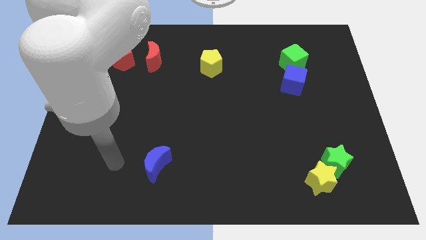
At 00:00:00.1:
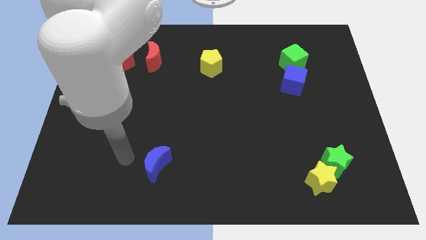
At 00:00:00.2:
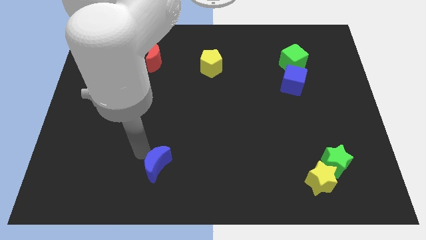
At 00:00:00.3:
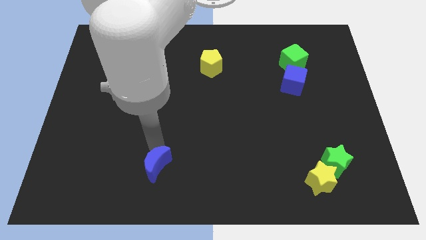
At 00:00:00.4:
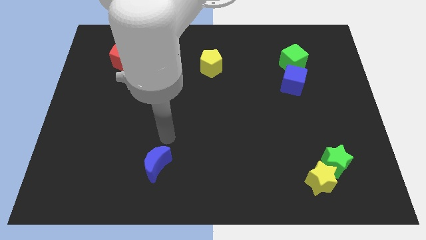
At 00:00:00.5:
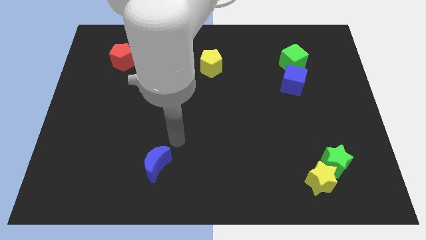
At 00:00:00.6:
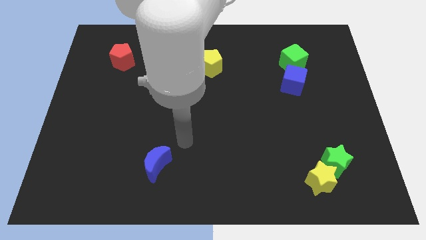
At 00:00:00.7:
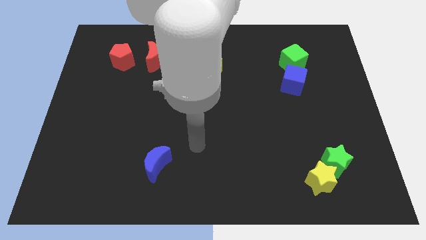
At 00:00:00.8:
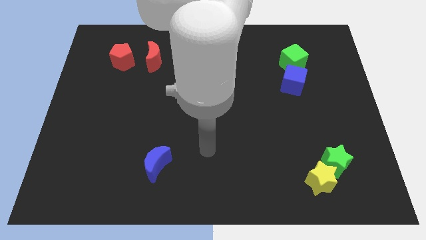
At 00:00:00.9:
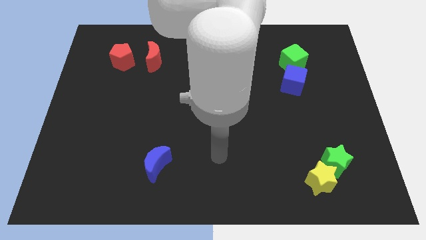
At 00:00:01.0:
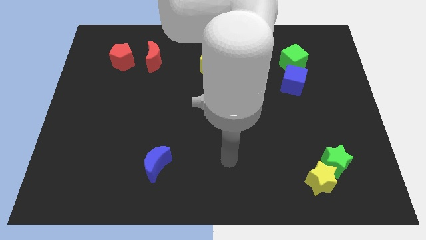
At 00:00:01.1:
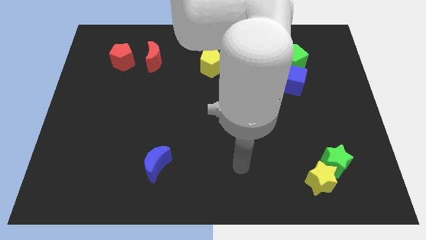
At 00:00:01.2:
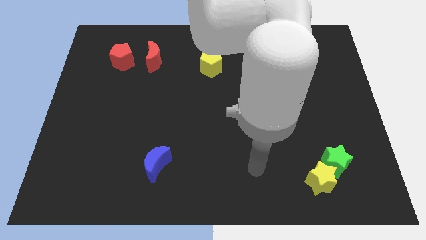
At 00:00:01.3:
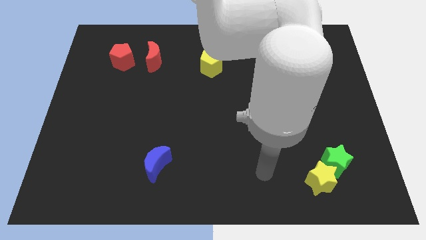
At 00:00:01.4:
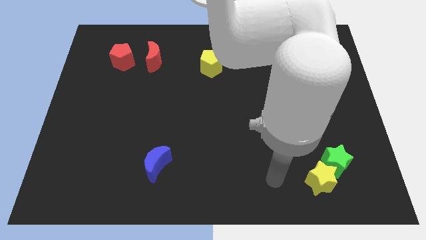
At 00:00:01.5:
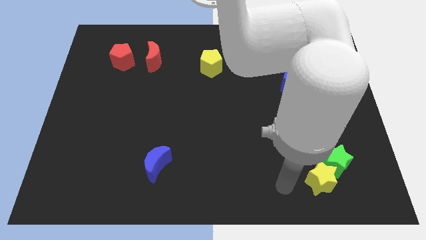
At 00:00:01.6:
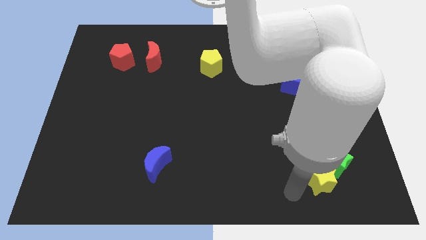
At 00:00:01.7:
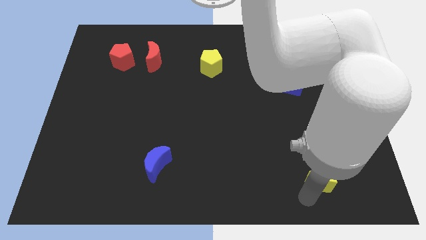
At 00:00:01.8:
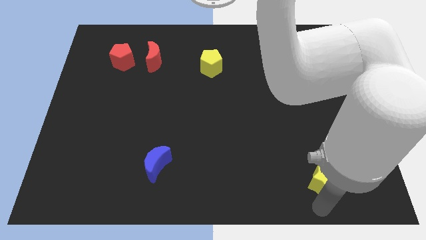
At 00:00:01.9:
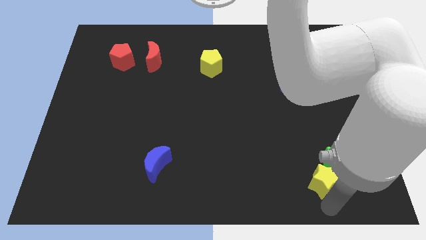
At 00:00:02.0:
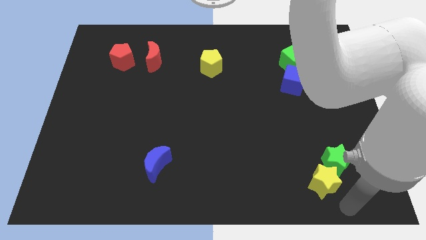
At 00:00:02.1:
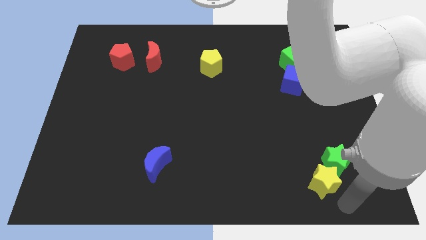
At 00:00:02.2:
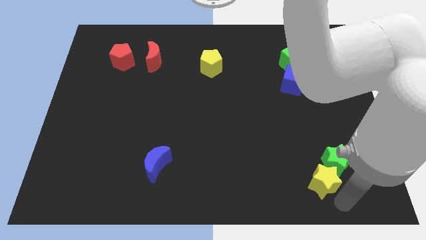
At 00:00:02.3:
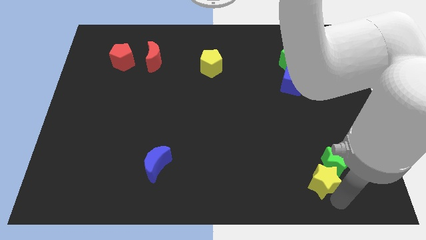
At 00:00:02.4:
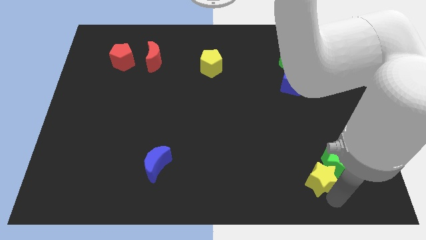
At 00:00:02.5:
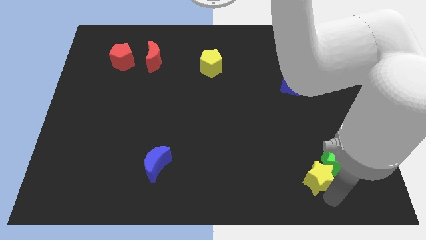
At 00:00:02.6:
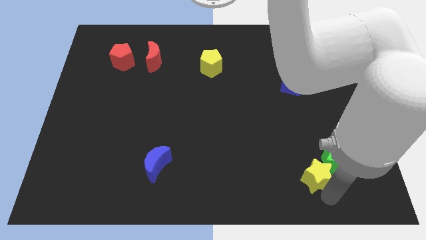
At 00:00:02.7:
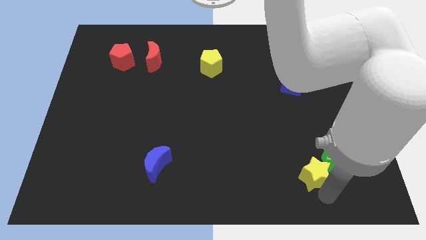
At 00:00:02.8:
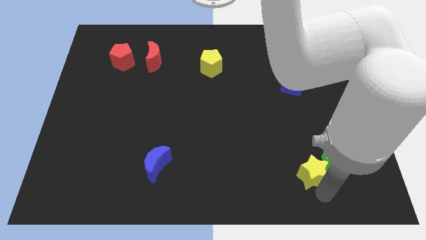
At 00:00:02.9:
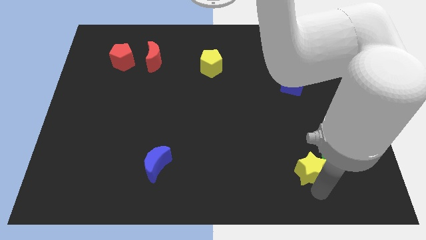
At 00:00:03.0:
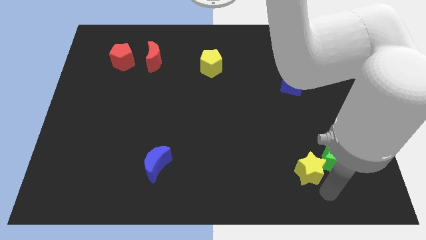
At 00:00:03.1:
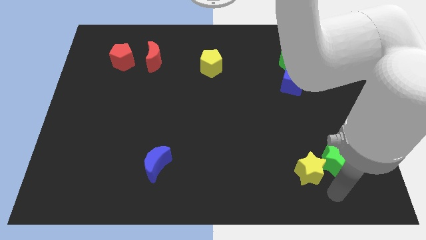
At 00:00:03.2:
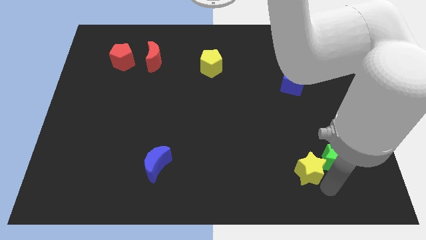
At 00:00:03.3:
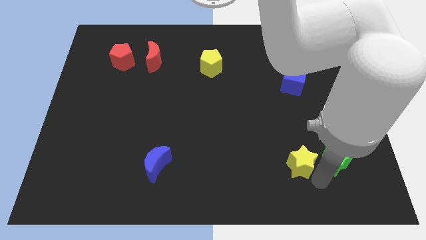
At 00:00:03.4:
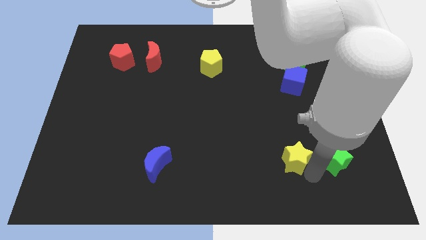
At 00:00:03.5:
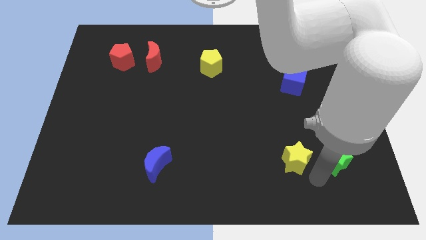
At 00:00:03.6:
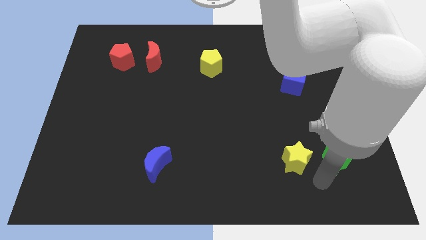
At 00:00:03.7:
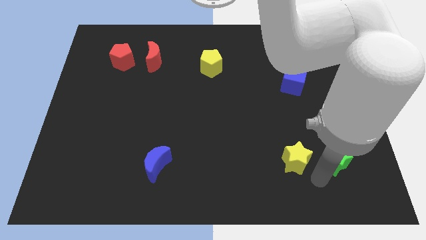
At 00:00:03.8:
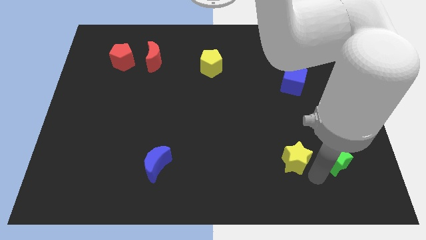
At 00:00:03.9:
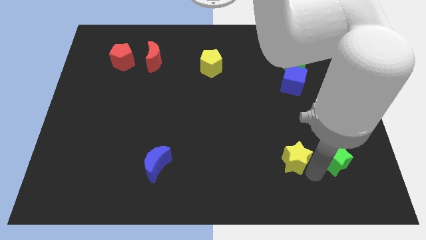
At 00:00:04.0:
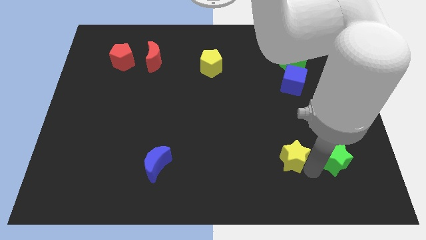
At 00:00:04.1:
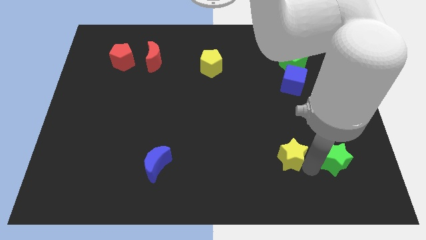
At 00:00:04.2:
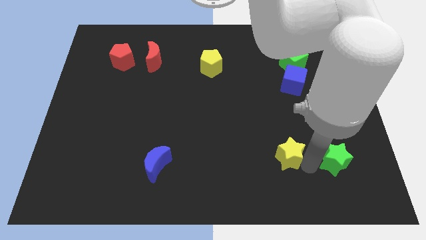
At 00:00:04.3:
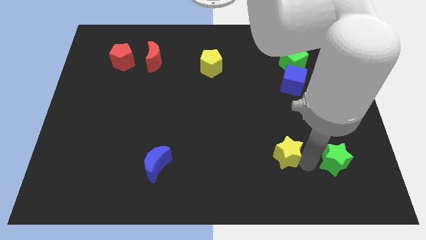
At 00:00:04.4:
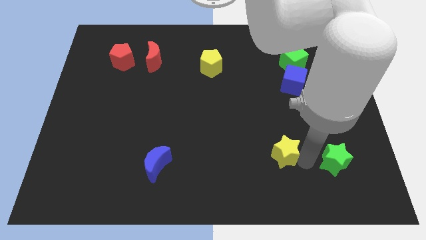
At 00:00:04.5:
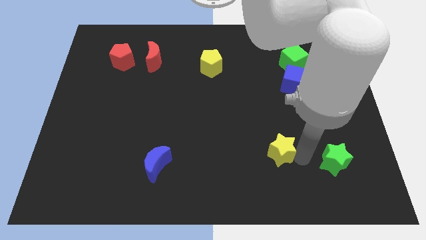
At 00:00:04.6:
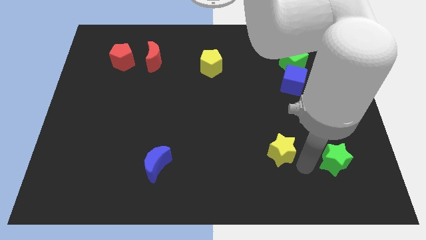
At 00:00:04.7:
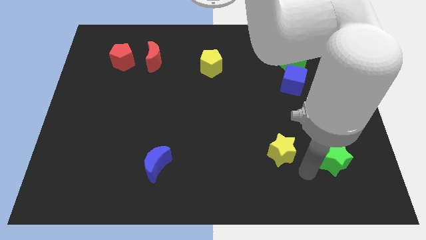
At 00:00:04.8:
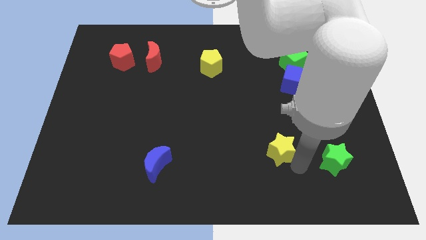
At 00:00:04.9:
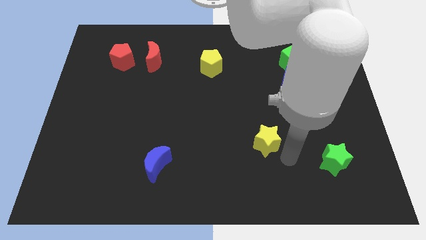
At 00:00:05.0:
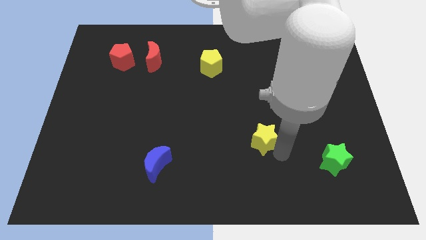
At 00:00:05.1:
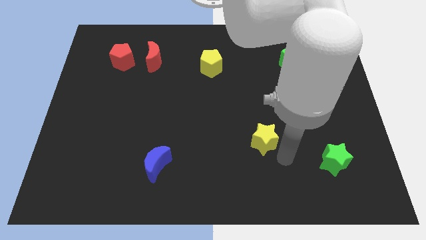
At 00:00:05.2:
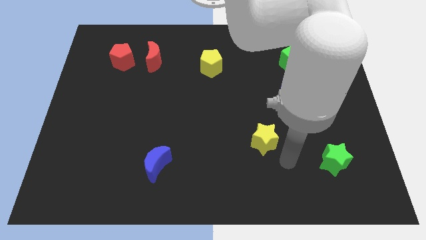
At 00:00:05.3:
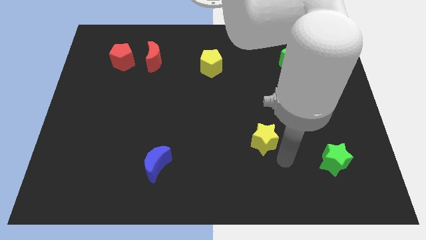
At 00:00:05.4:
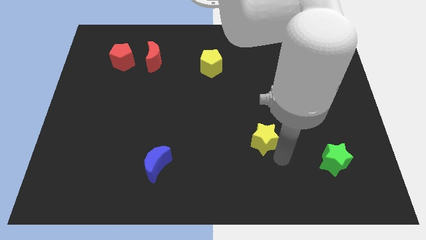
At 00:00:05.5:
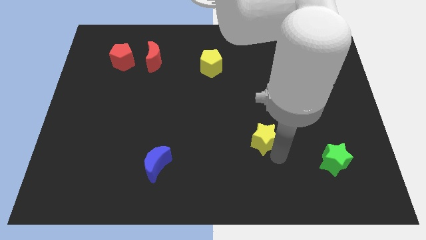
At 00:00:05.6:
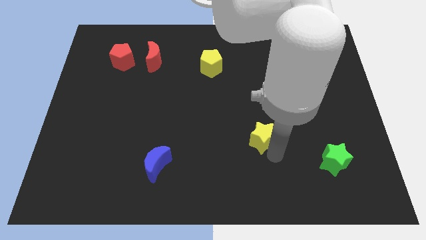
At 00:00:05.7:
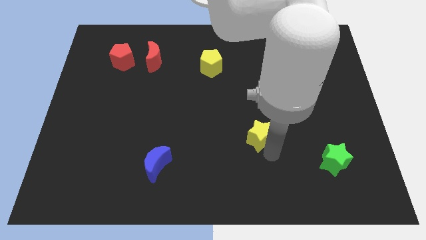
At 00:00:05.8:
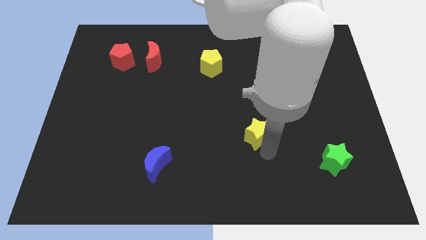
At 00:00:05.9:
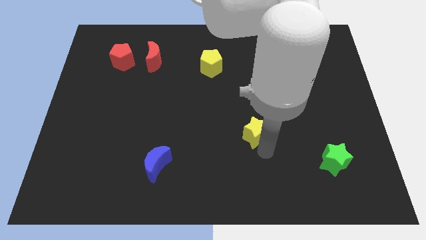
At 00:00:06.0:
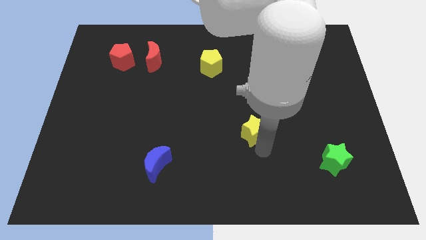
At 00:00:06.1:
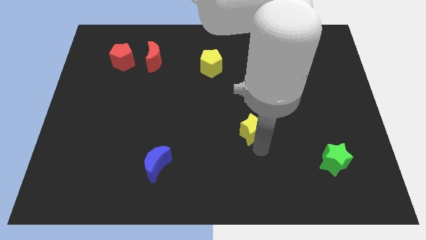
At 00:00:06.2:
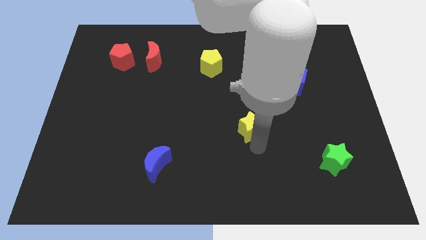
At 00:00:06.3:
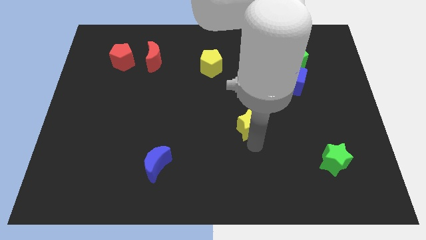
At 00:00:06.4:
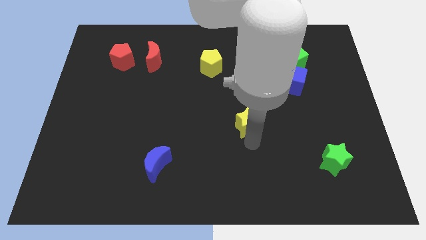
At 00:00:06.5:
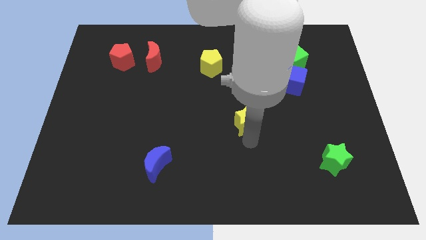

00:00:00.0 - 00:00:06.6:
push the yellow star up and left

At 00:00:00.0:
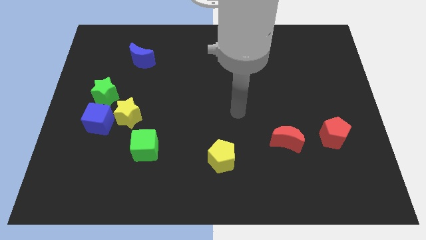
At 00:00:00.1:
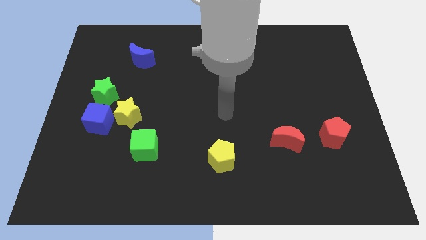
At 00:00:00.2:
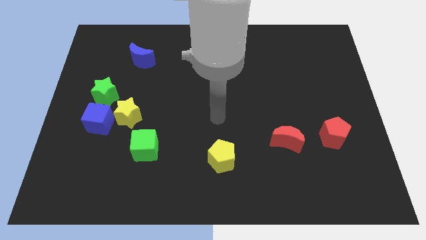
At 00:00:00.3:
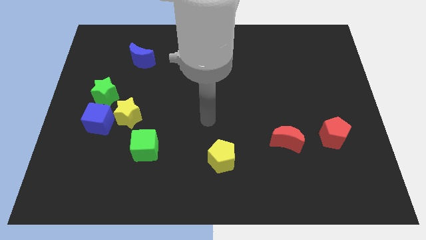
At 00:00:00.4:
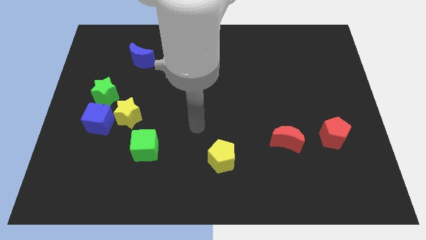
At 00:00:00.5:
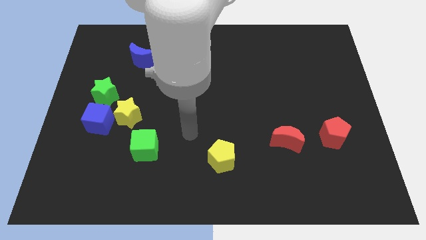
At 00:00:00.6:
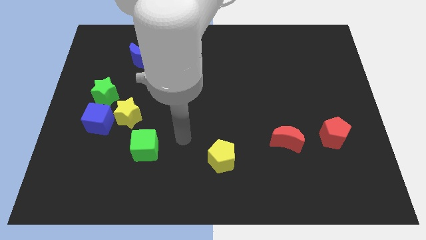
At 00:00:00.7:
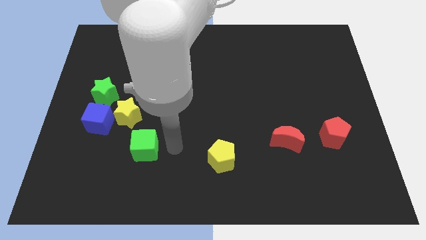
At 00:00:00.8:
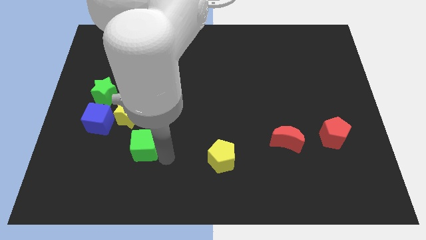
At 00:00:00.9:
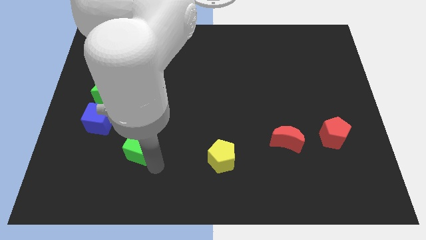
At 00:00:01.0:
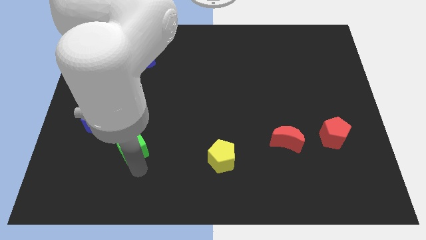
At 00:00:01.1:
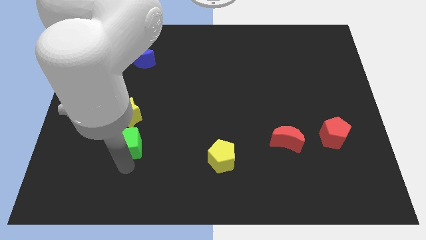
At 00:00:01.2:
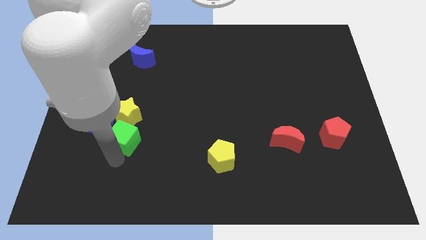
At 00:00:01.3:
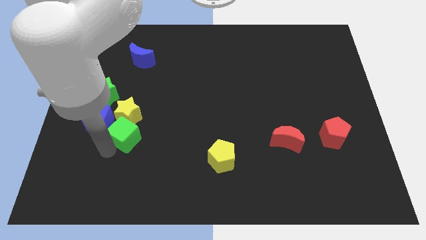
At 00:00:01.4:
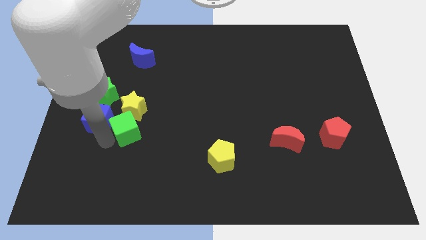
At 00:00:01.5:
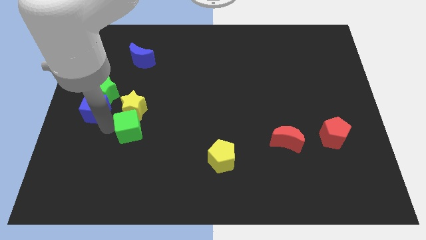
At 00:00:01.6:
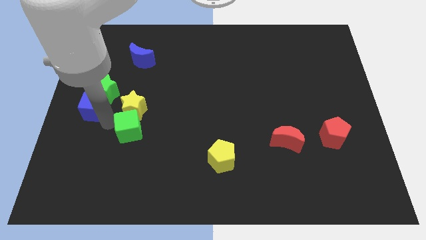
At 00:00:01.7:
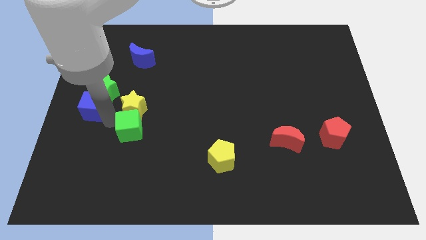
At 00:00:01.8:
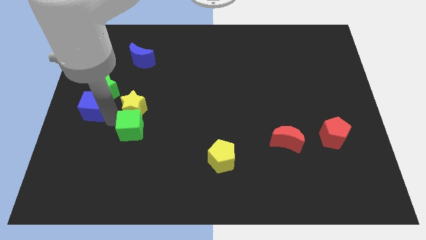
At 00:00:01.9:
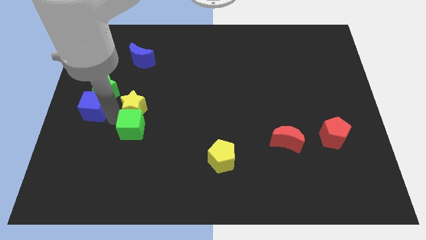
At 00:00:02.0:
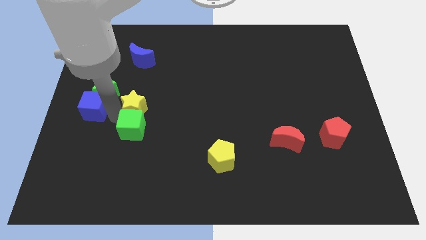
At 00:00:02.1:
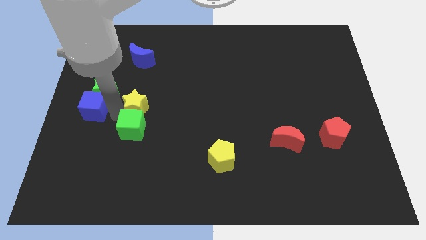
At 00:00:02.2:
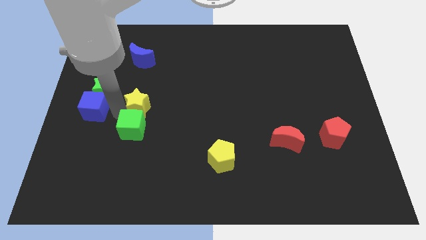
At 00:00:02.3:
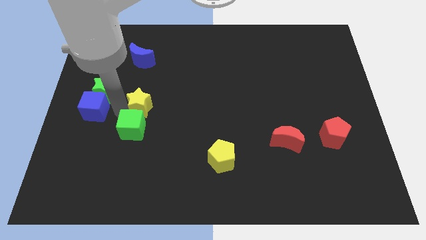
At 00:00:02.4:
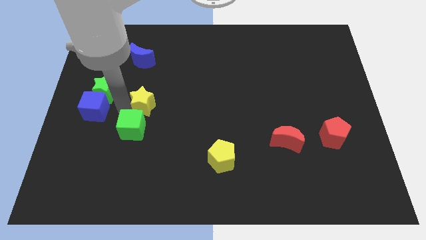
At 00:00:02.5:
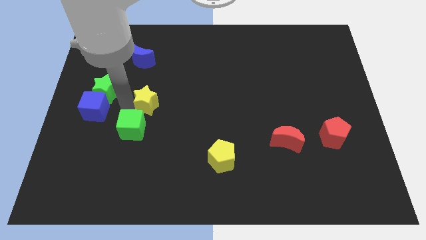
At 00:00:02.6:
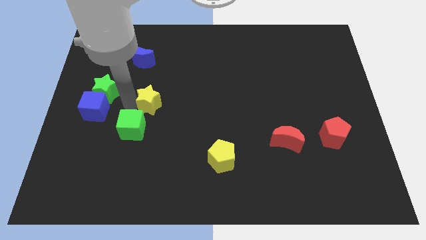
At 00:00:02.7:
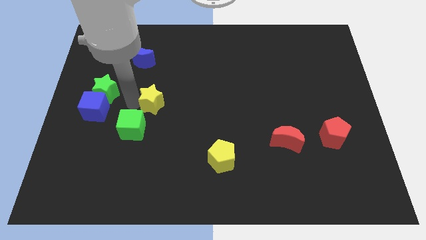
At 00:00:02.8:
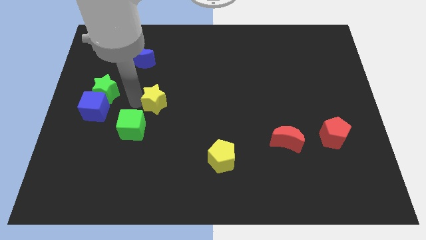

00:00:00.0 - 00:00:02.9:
move the yellow star up and right a bit
